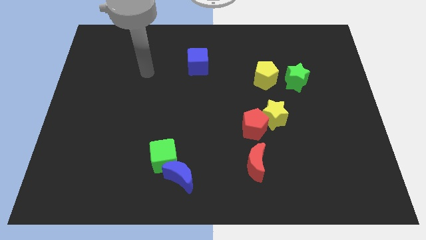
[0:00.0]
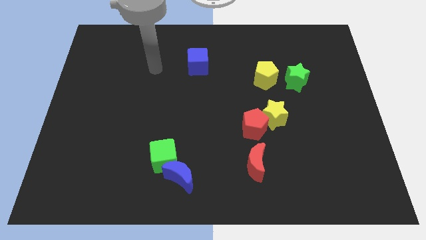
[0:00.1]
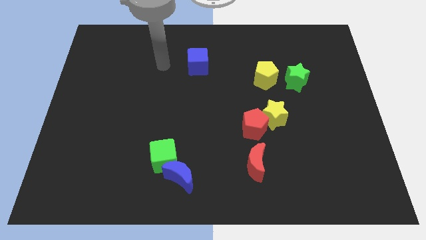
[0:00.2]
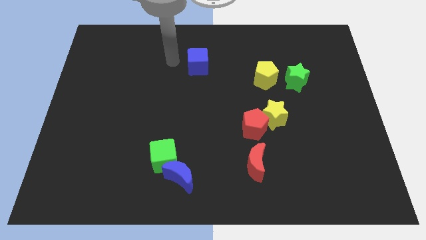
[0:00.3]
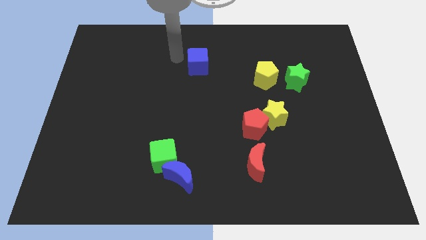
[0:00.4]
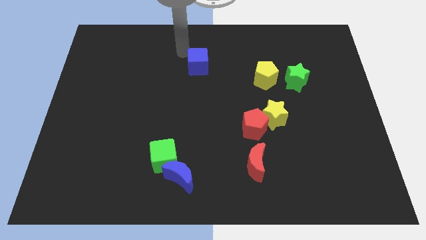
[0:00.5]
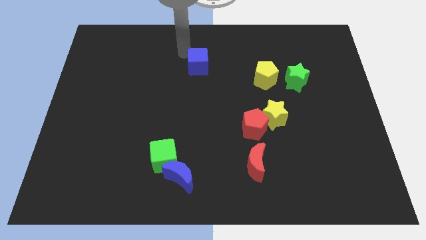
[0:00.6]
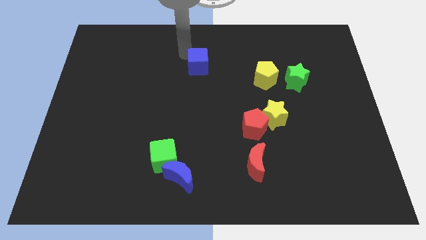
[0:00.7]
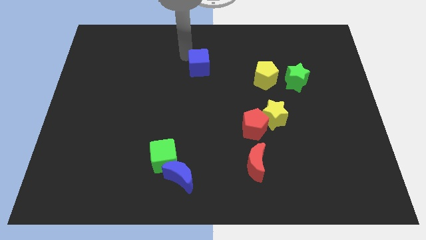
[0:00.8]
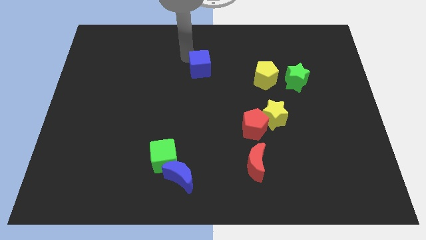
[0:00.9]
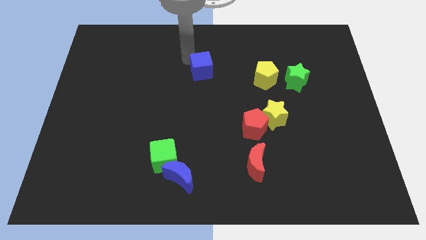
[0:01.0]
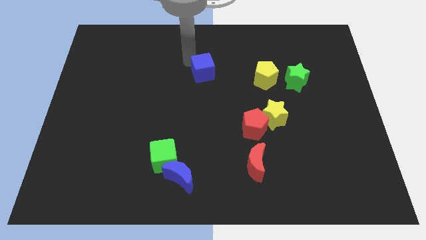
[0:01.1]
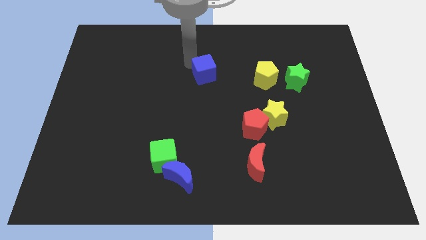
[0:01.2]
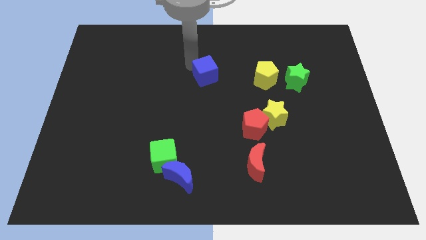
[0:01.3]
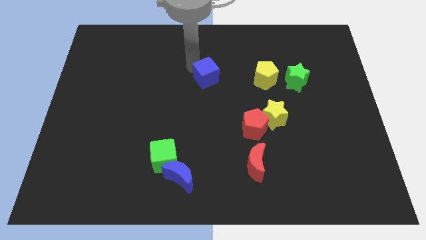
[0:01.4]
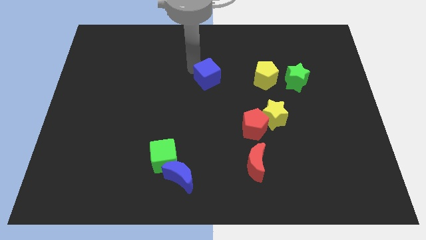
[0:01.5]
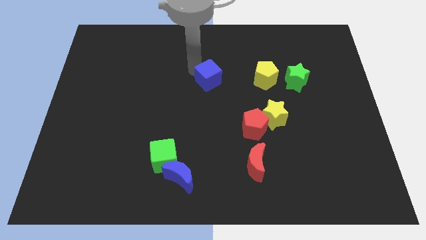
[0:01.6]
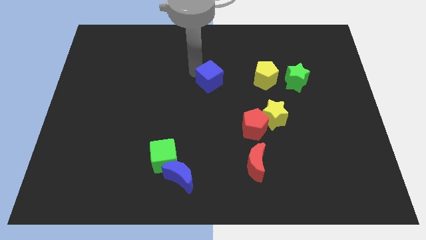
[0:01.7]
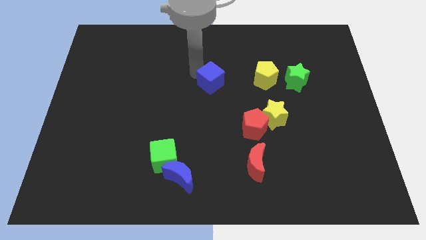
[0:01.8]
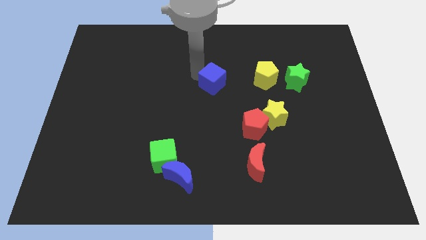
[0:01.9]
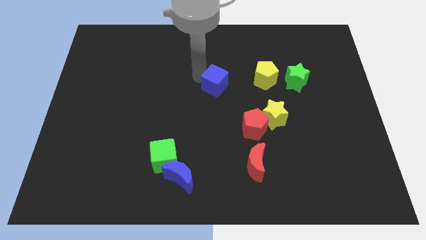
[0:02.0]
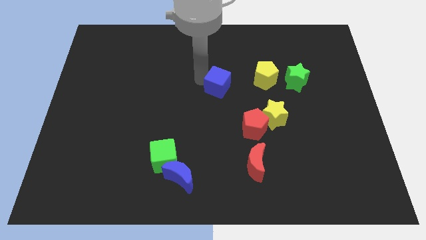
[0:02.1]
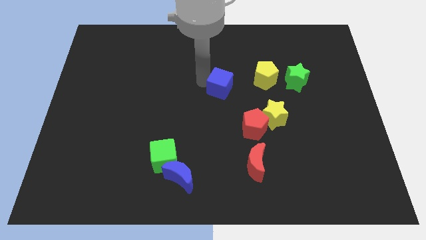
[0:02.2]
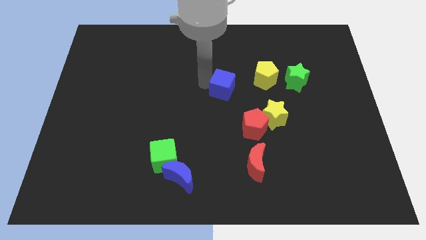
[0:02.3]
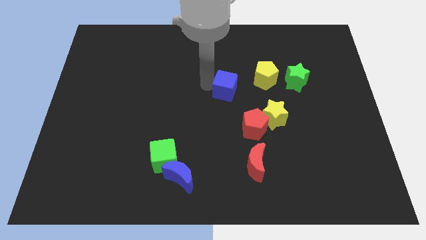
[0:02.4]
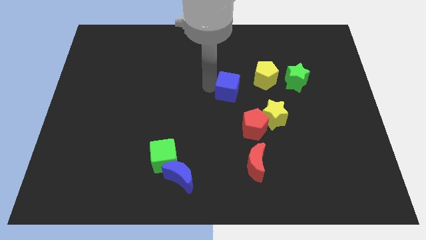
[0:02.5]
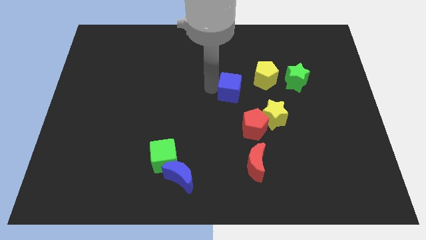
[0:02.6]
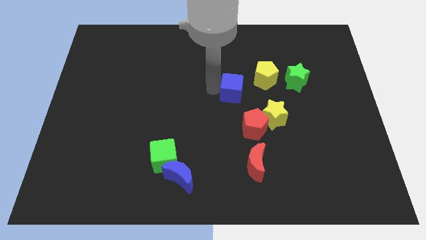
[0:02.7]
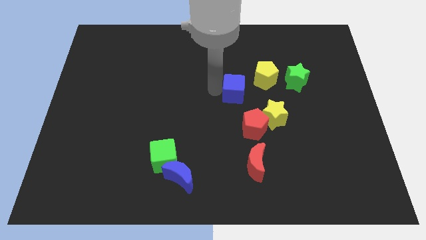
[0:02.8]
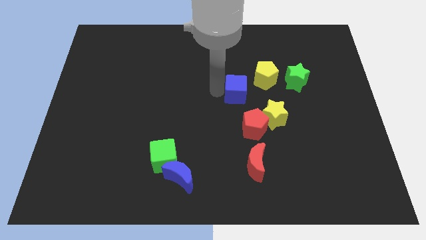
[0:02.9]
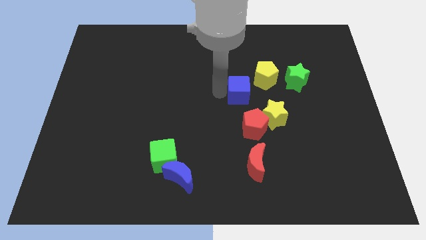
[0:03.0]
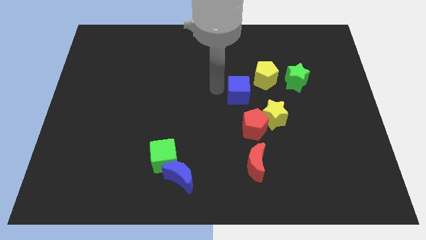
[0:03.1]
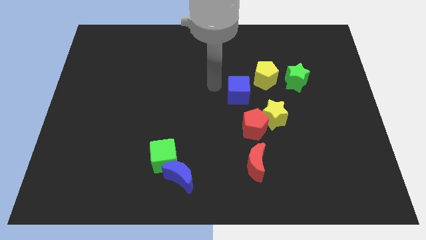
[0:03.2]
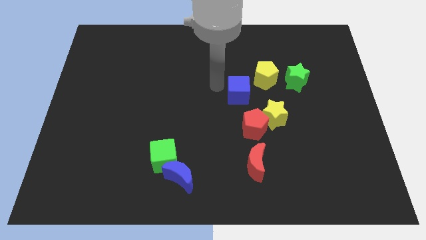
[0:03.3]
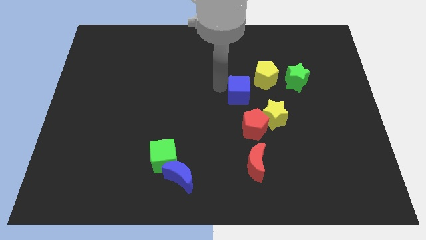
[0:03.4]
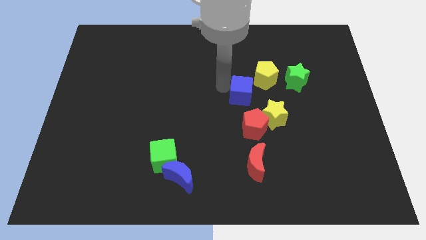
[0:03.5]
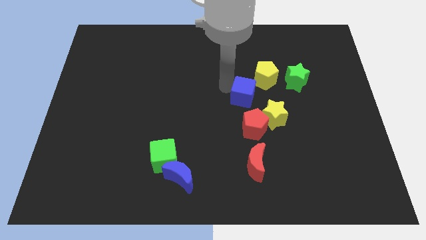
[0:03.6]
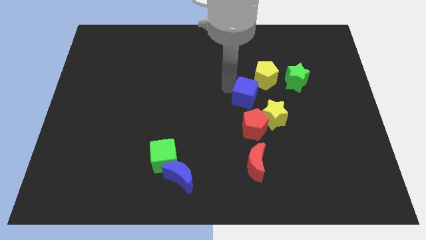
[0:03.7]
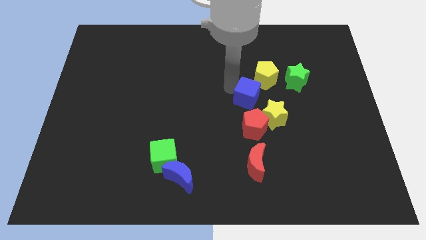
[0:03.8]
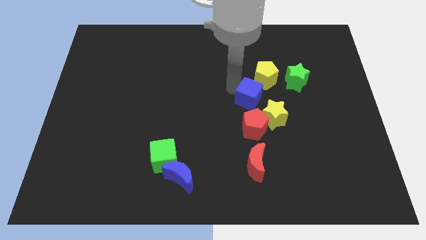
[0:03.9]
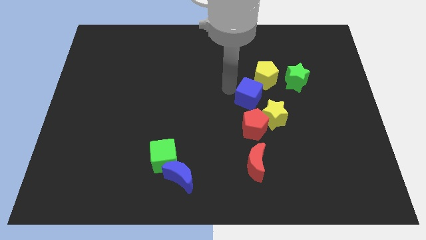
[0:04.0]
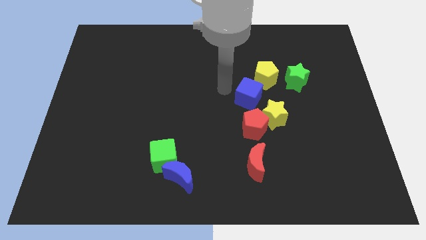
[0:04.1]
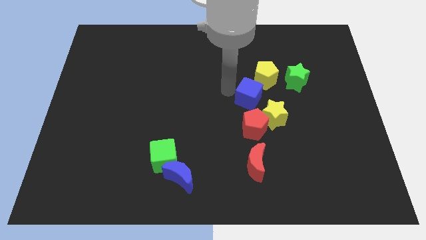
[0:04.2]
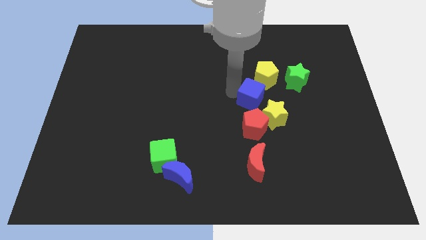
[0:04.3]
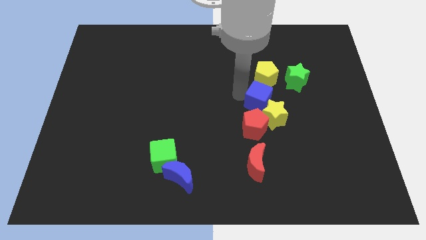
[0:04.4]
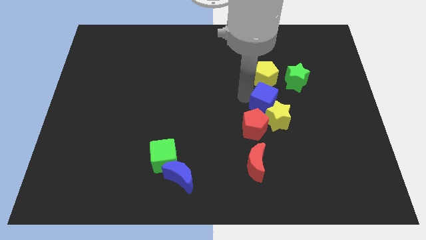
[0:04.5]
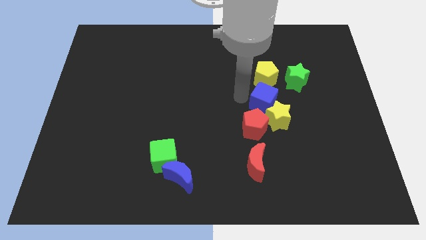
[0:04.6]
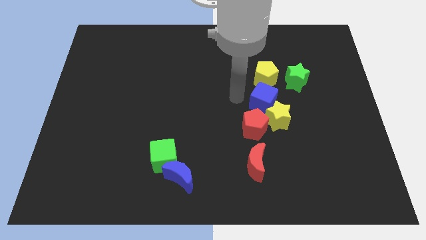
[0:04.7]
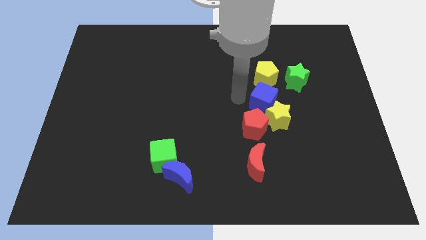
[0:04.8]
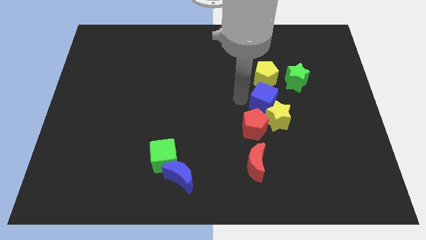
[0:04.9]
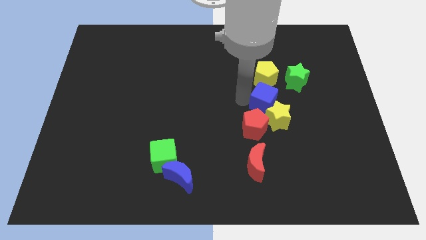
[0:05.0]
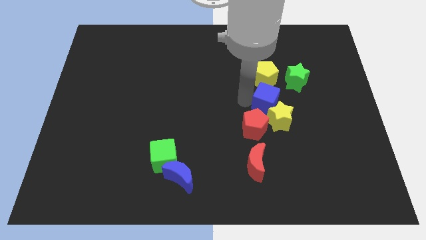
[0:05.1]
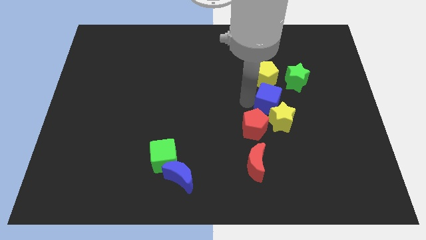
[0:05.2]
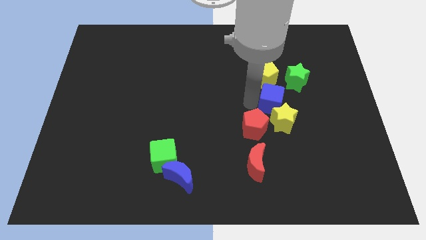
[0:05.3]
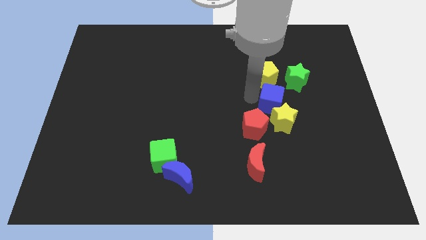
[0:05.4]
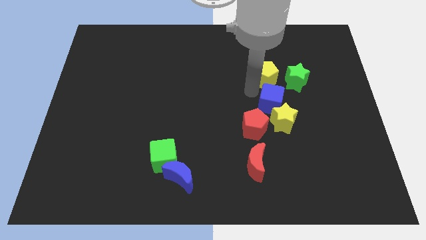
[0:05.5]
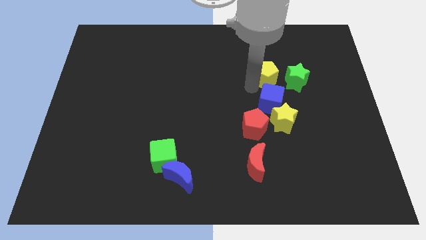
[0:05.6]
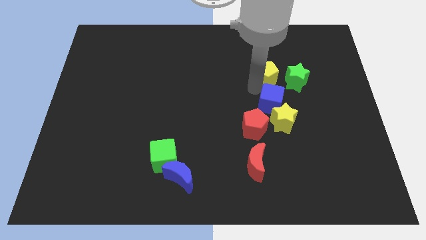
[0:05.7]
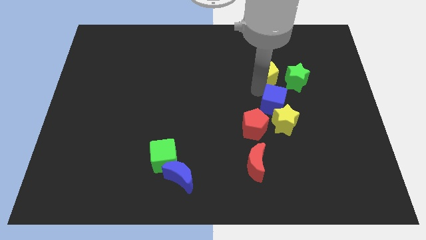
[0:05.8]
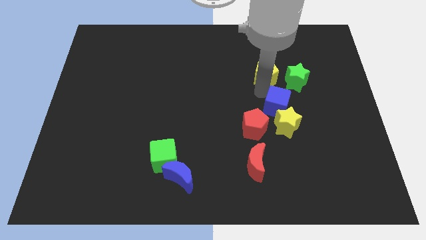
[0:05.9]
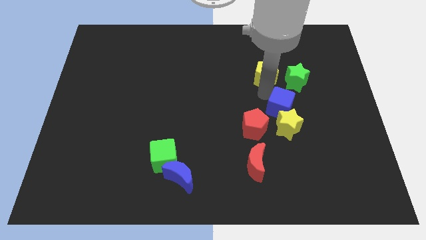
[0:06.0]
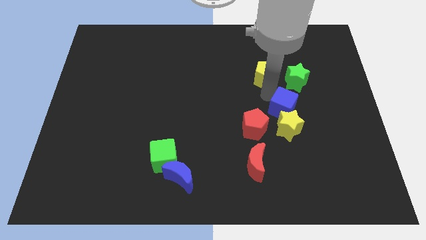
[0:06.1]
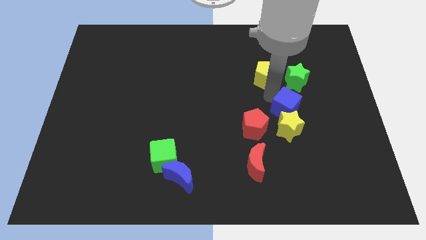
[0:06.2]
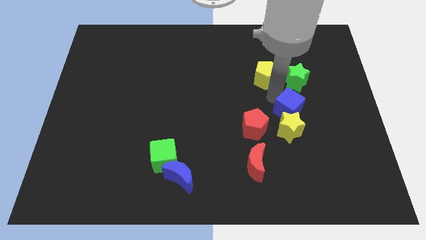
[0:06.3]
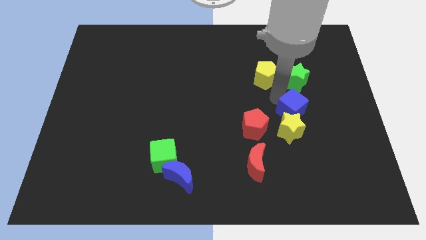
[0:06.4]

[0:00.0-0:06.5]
push the blue cube to the right side of the red pentagon

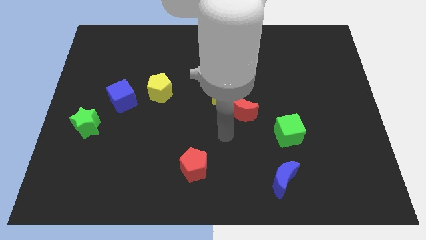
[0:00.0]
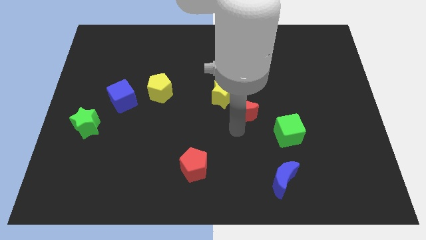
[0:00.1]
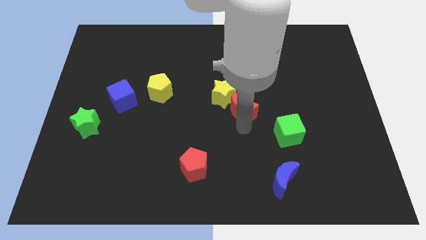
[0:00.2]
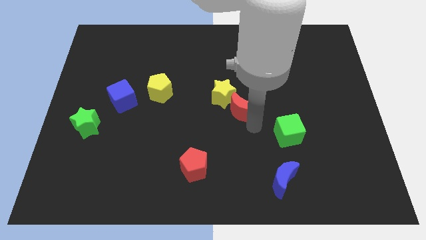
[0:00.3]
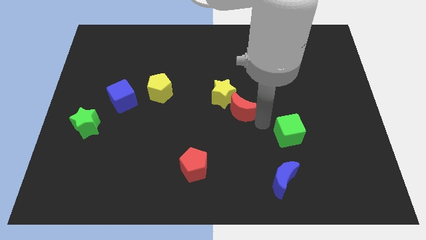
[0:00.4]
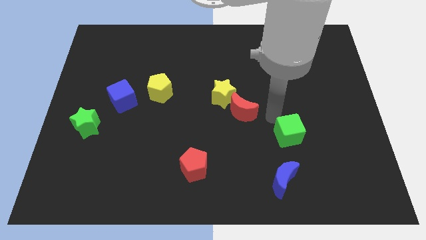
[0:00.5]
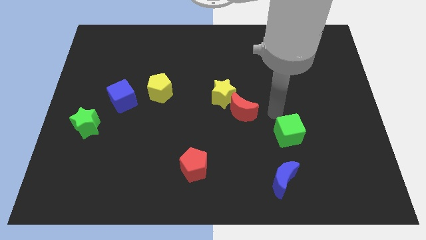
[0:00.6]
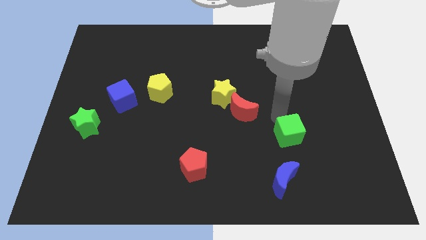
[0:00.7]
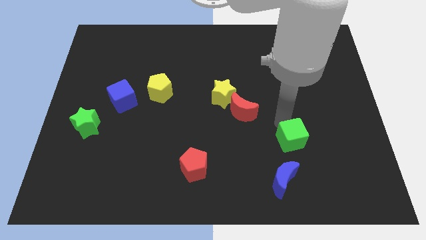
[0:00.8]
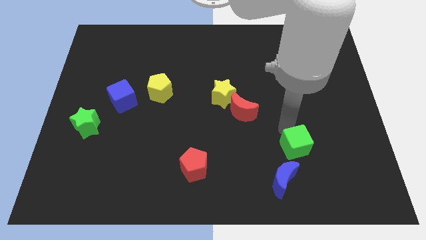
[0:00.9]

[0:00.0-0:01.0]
push the green cube to the top right of the blue moon
